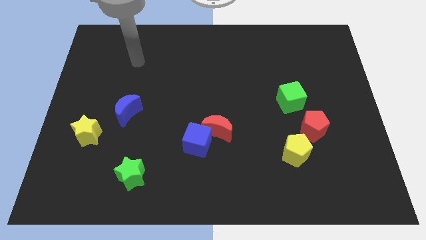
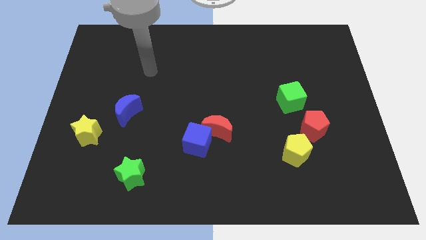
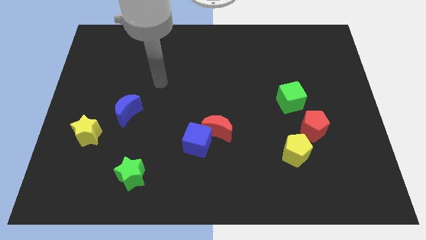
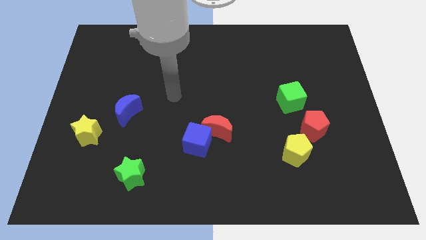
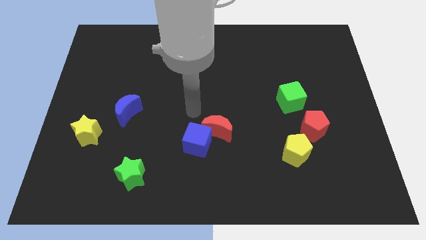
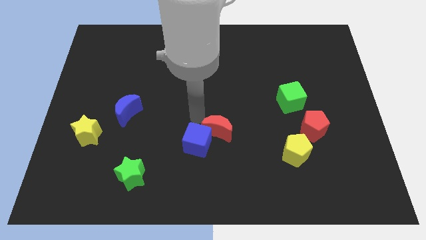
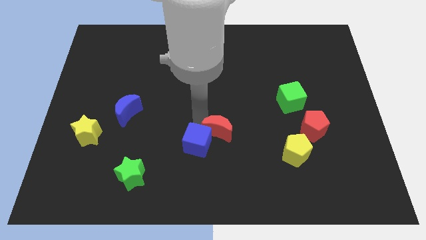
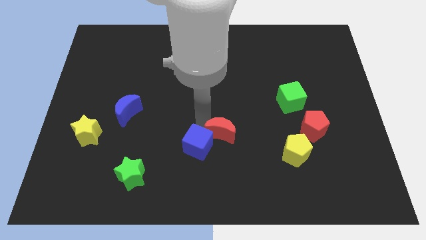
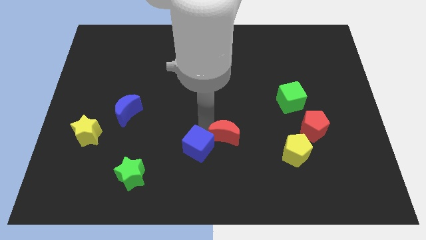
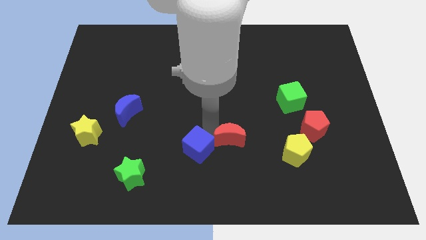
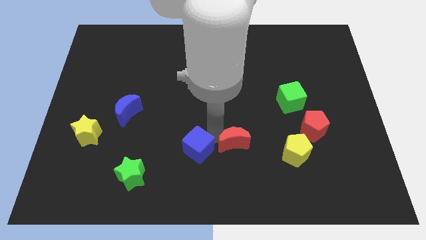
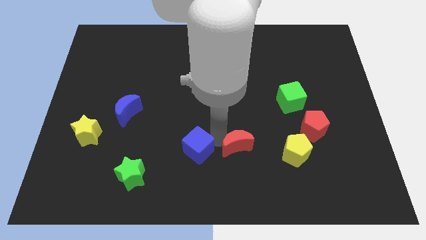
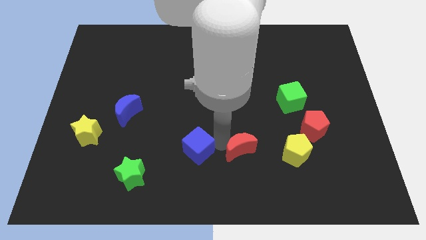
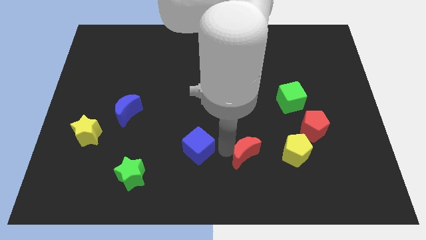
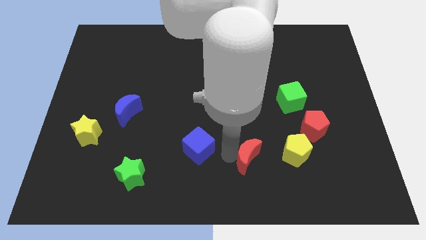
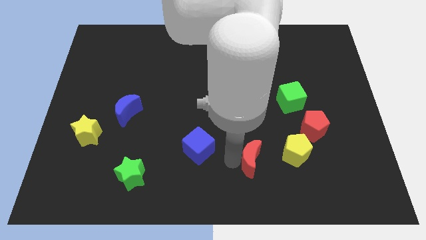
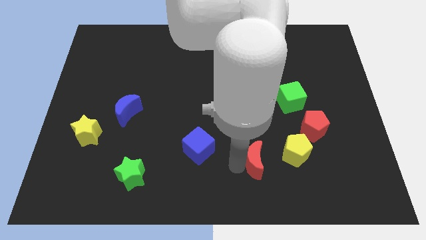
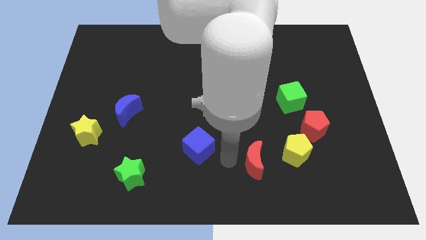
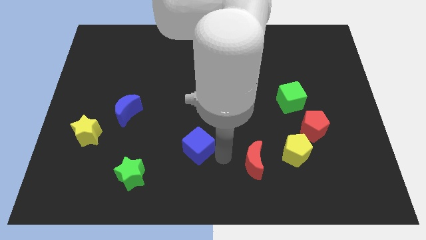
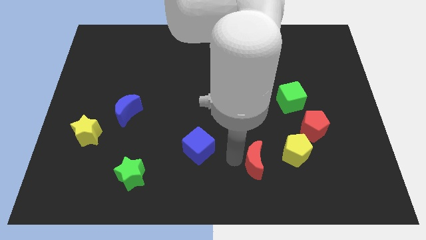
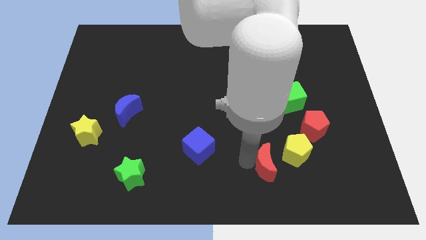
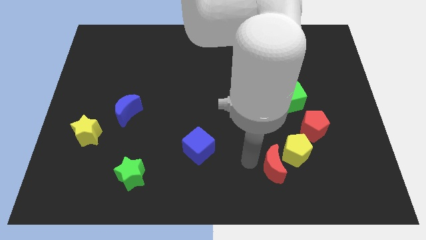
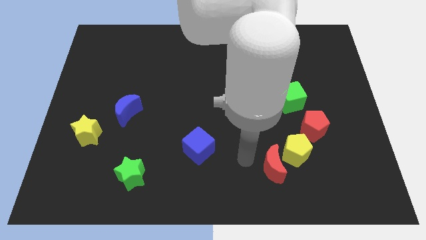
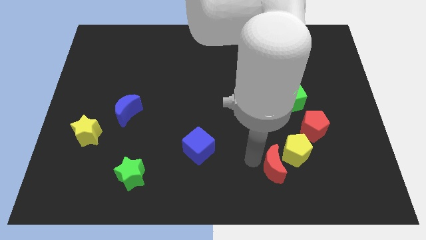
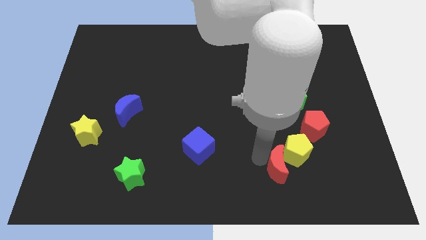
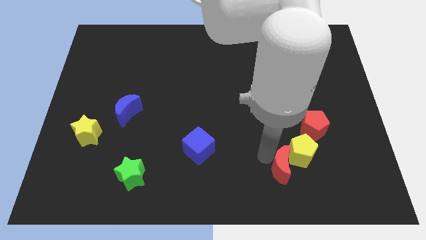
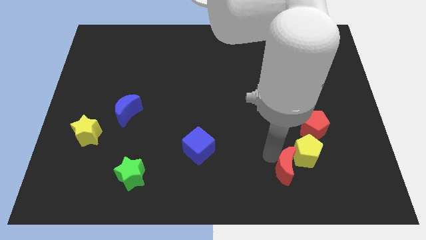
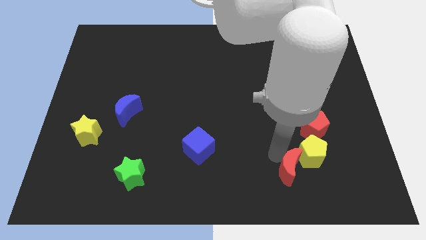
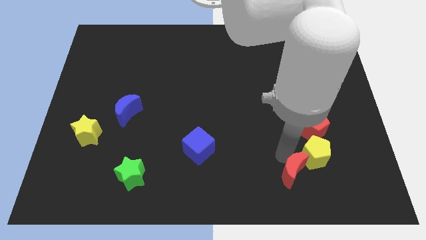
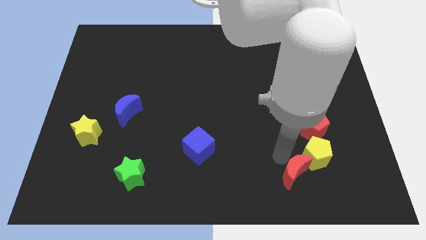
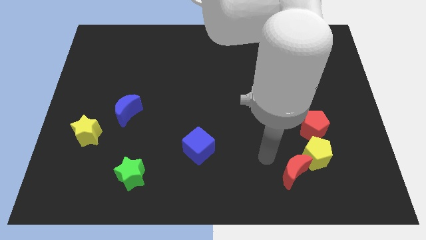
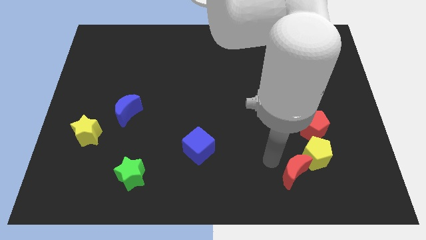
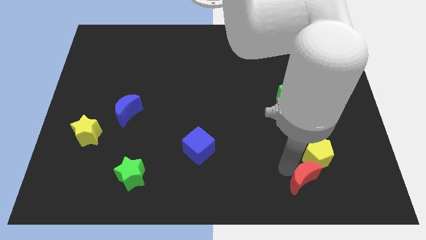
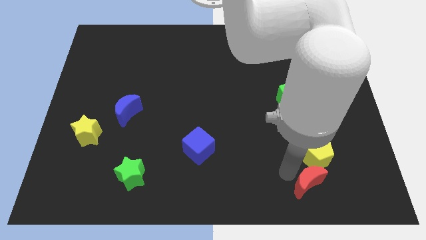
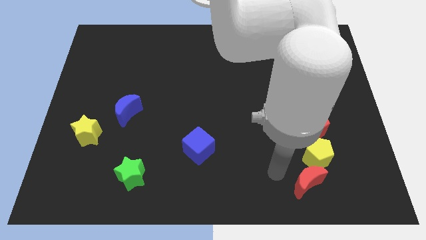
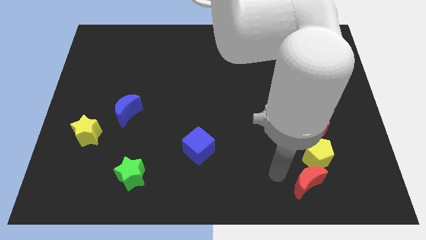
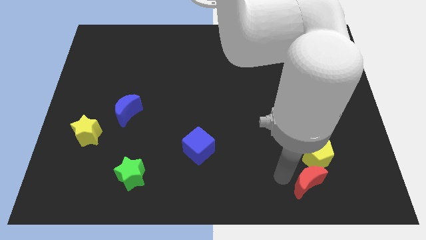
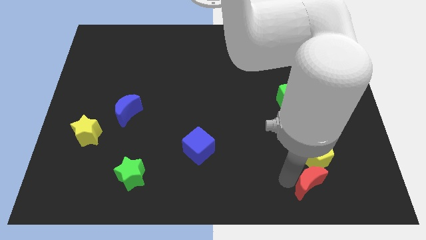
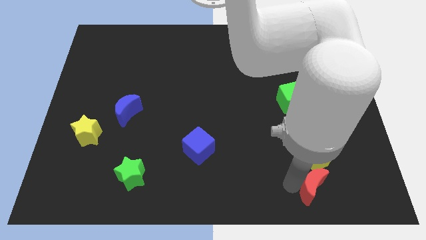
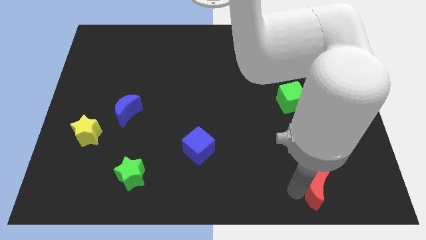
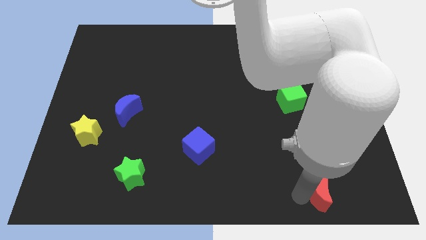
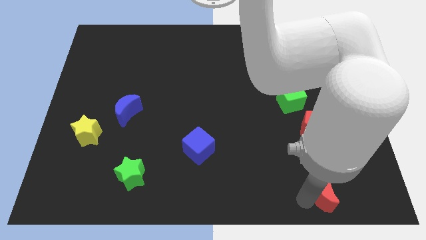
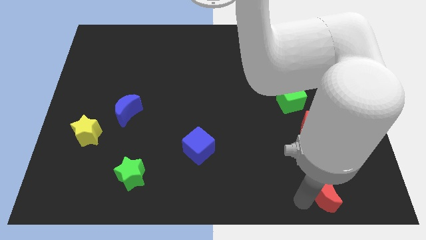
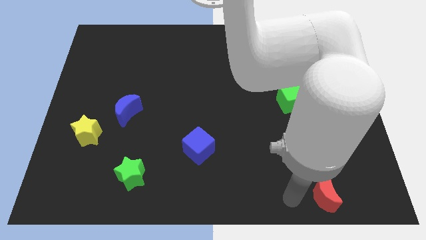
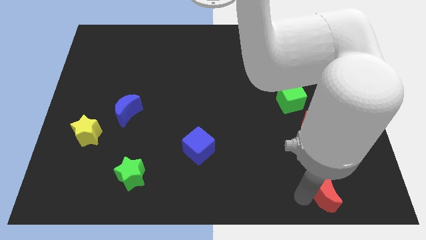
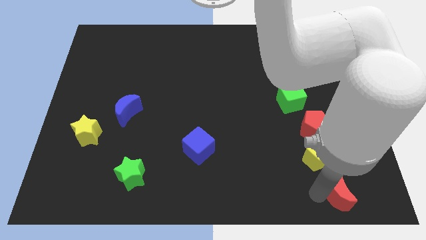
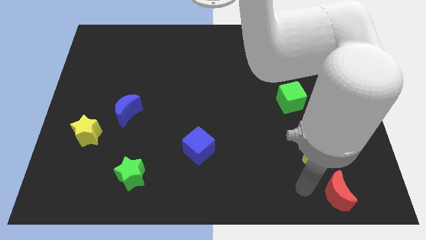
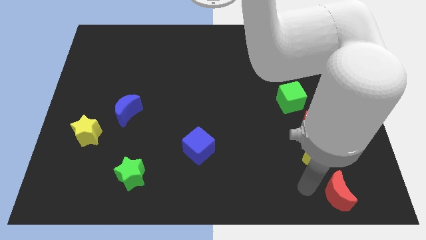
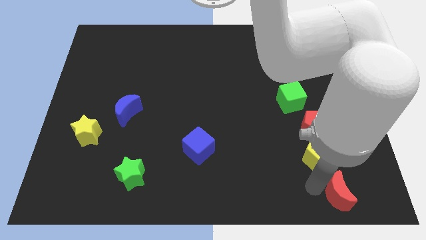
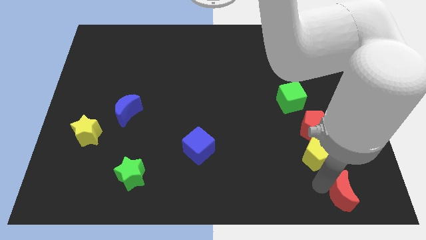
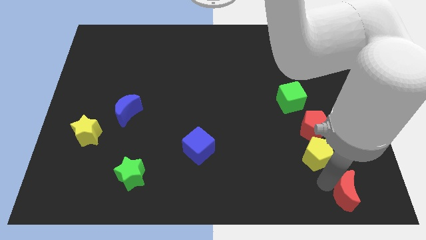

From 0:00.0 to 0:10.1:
move the red moon to the lower right corner

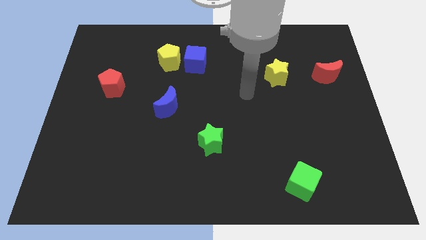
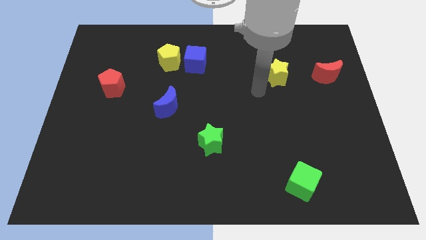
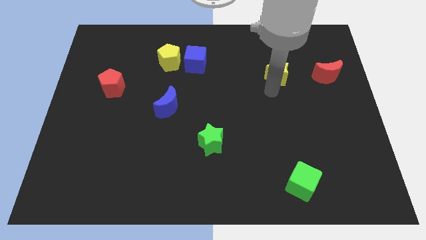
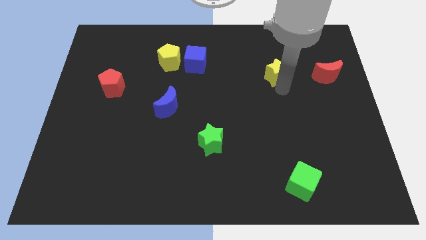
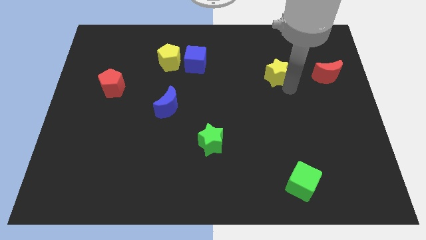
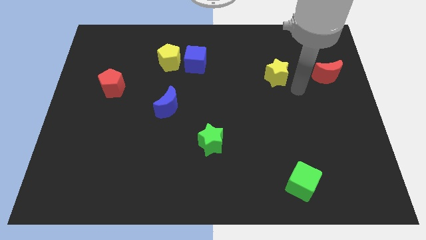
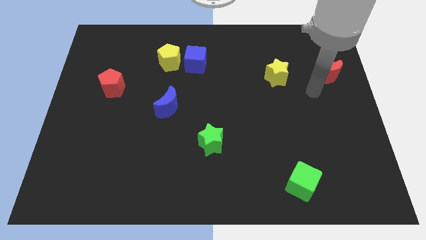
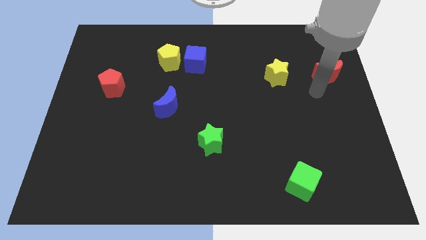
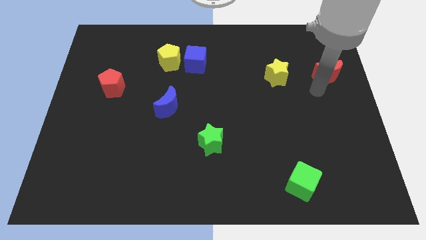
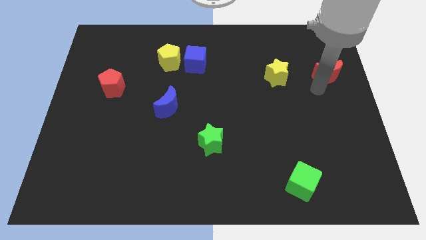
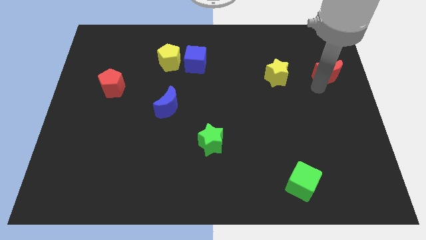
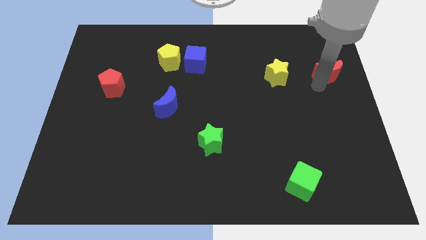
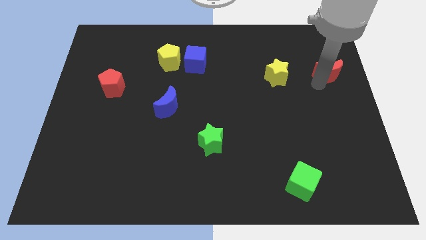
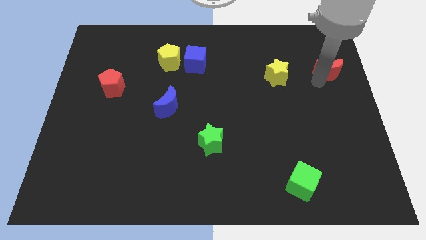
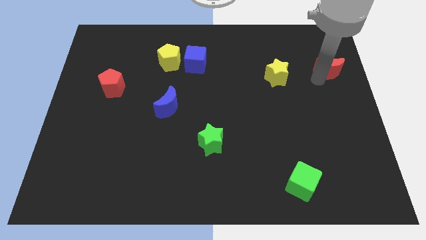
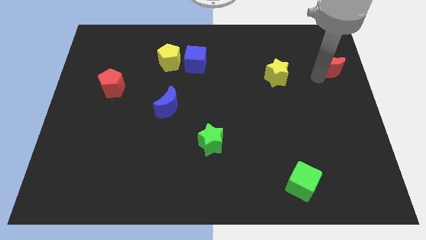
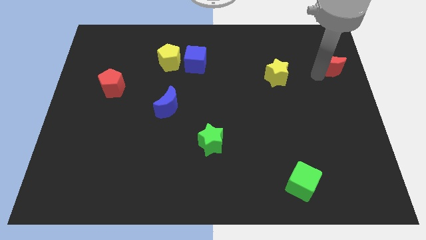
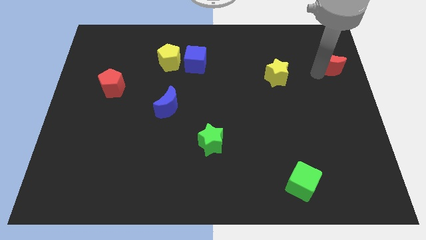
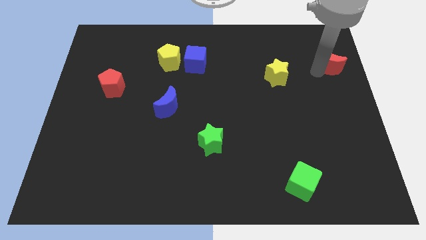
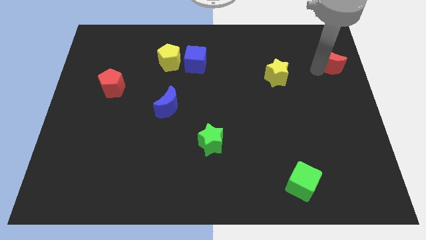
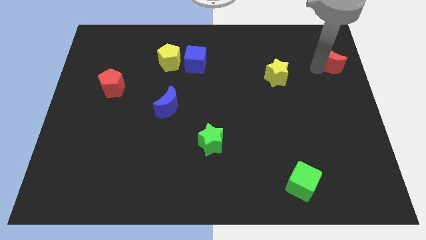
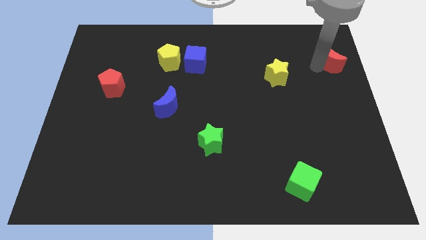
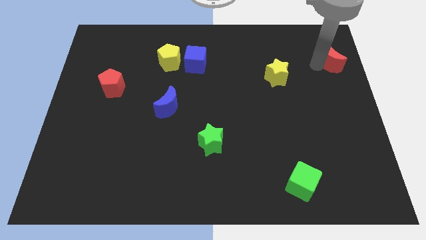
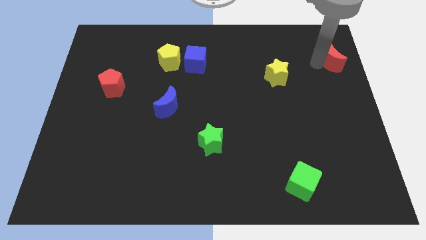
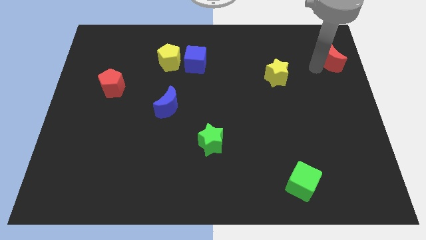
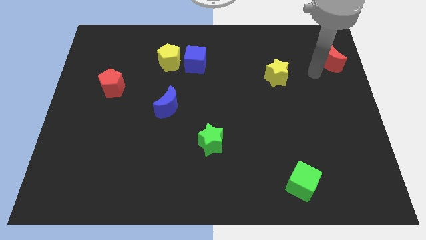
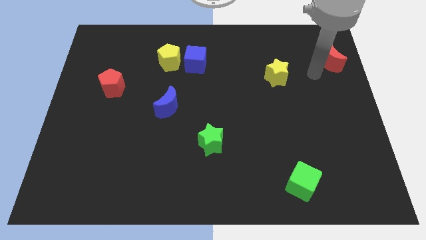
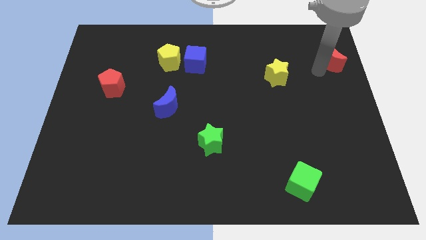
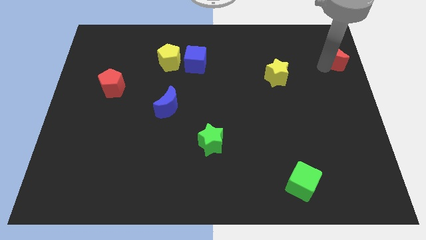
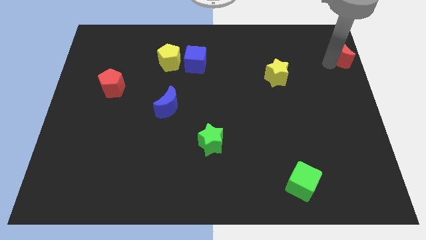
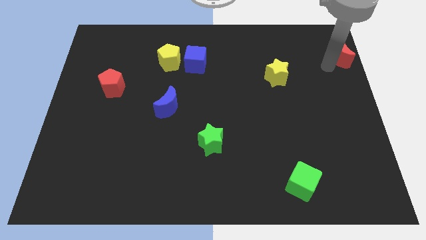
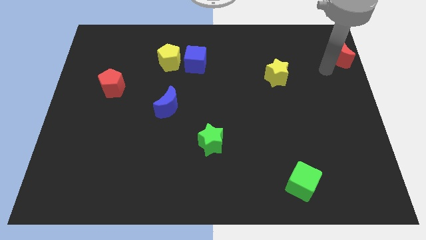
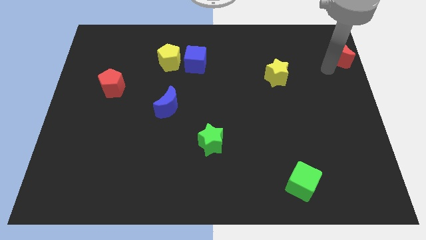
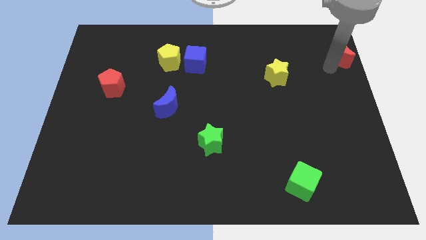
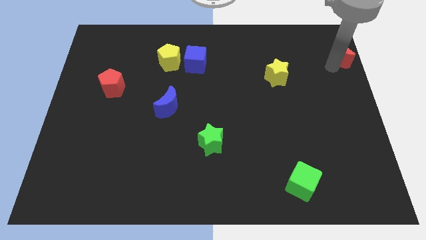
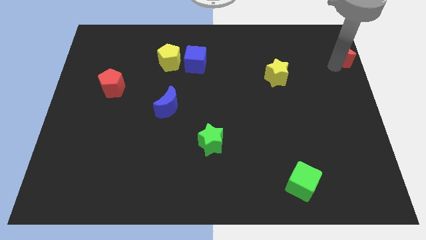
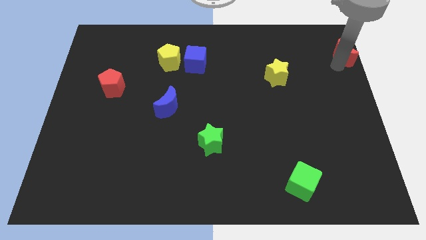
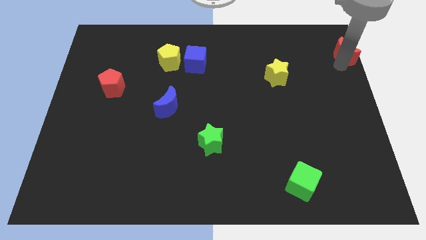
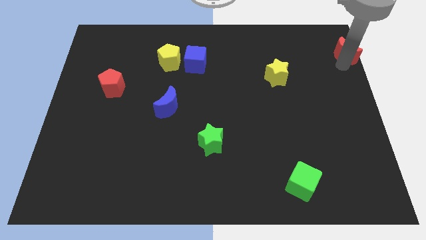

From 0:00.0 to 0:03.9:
move the red moon to the top right
